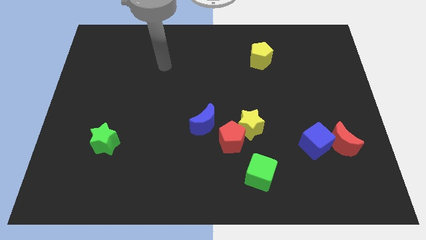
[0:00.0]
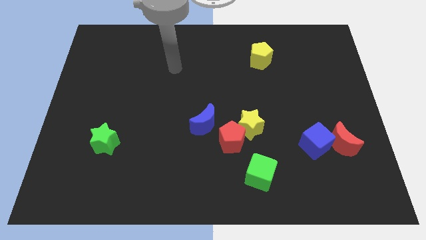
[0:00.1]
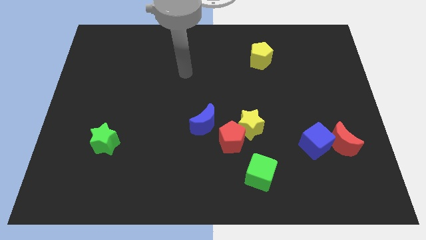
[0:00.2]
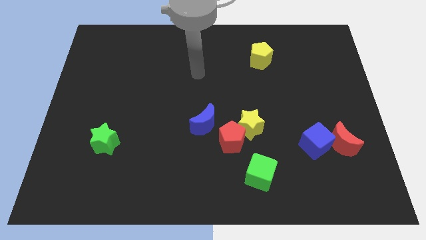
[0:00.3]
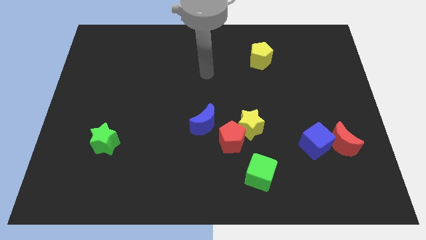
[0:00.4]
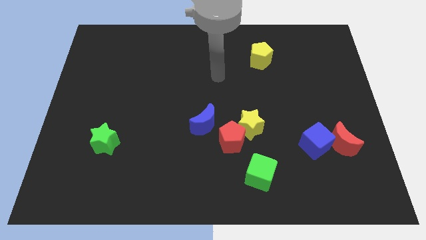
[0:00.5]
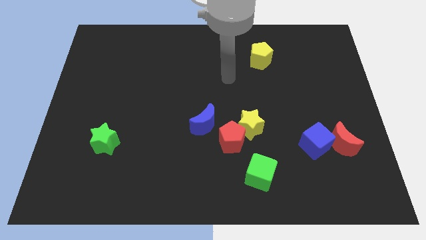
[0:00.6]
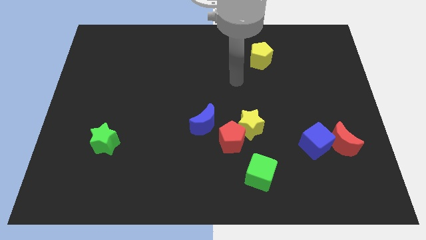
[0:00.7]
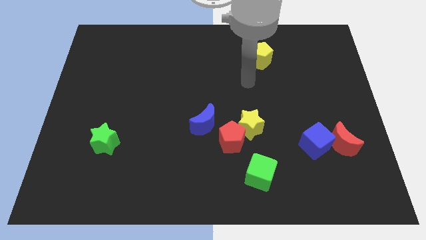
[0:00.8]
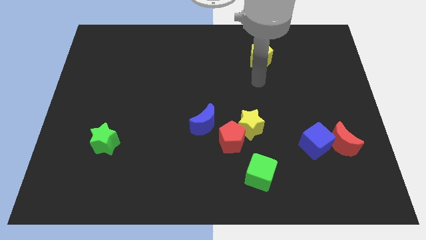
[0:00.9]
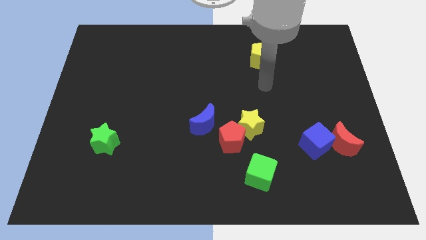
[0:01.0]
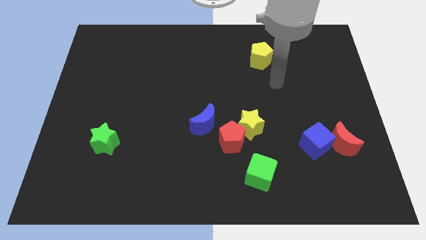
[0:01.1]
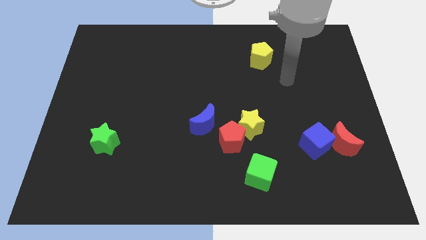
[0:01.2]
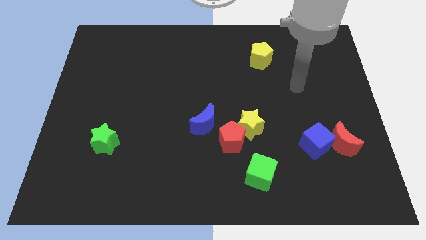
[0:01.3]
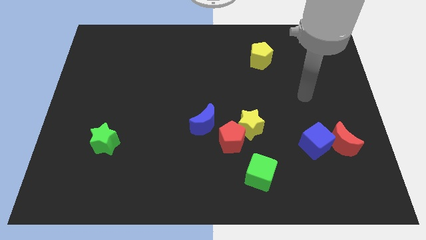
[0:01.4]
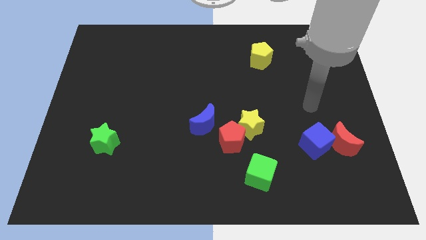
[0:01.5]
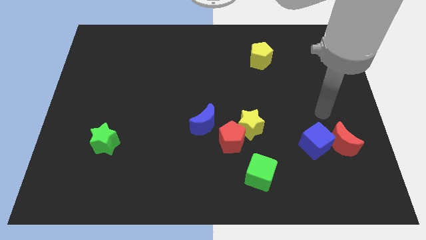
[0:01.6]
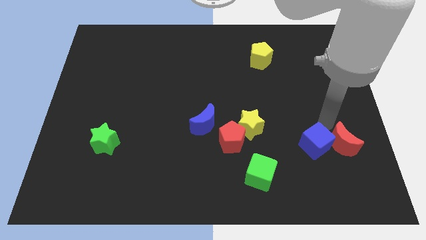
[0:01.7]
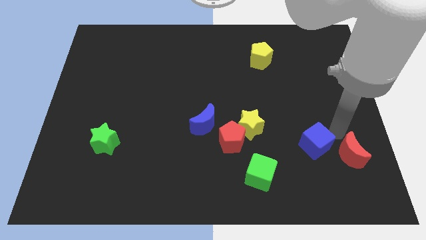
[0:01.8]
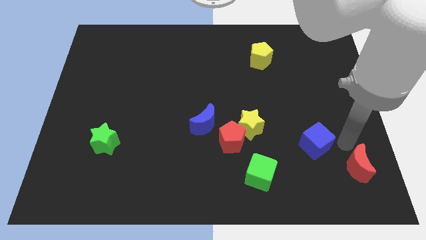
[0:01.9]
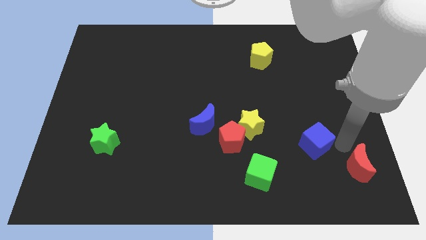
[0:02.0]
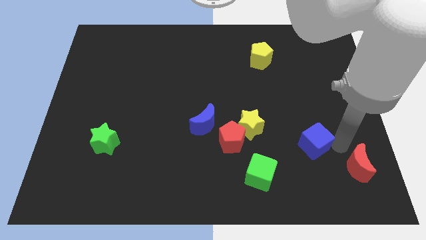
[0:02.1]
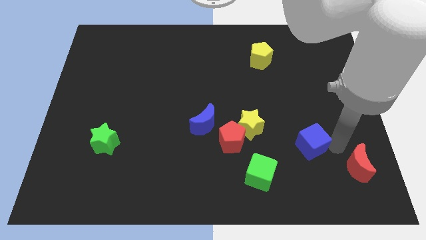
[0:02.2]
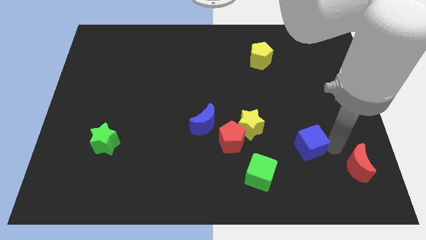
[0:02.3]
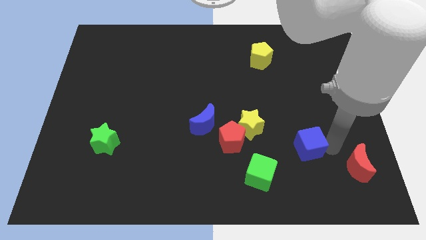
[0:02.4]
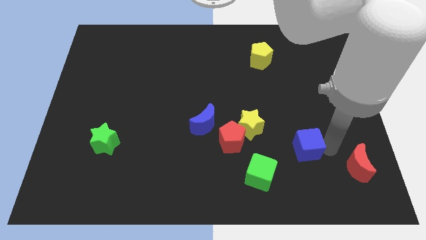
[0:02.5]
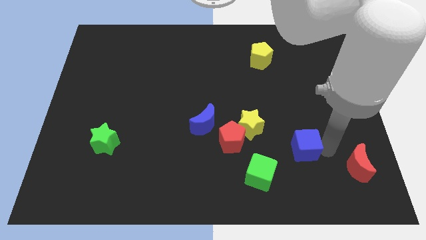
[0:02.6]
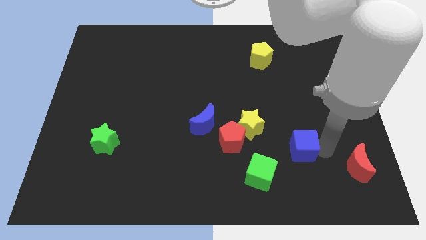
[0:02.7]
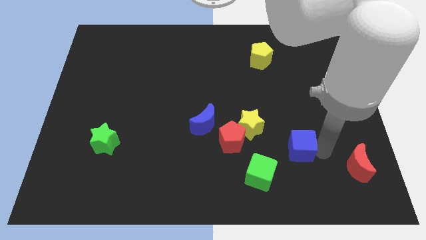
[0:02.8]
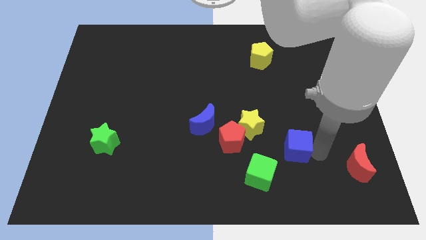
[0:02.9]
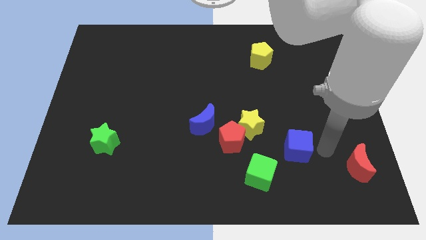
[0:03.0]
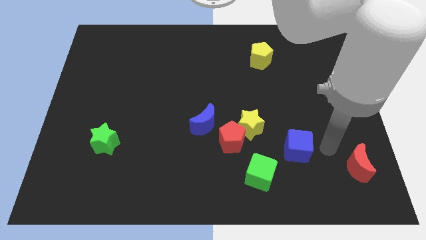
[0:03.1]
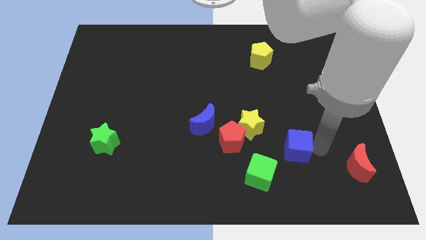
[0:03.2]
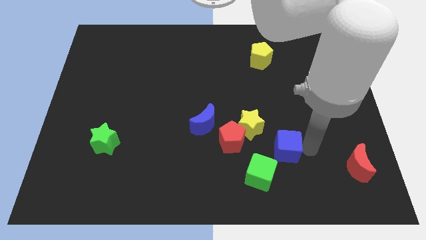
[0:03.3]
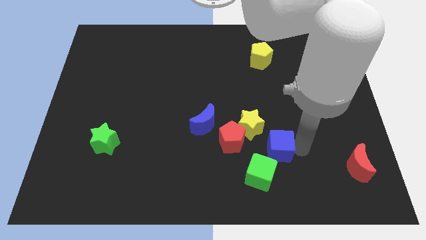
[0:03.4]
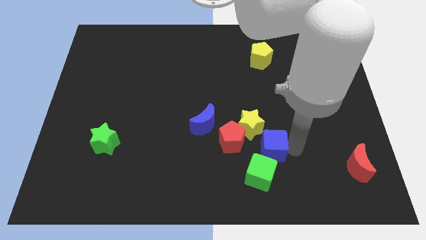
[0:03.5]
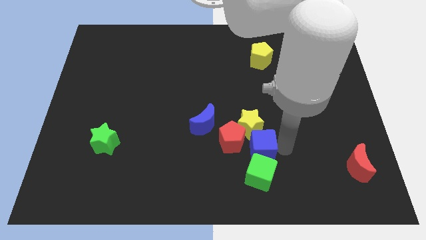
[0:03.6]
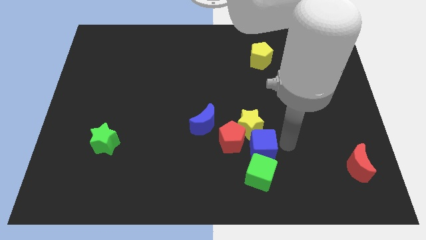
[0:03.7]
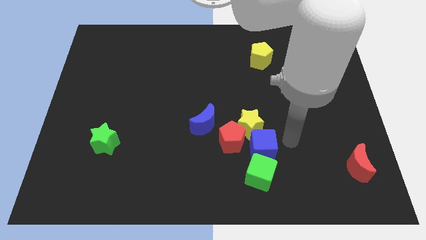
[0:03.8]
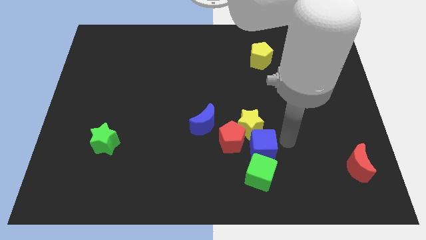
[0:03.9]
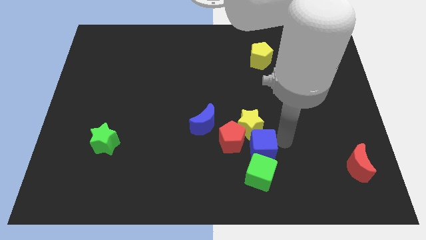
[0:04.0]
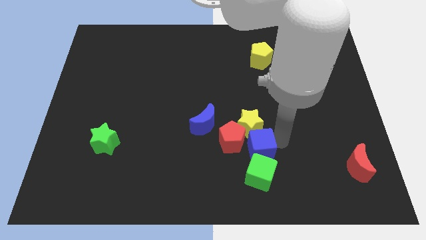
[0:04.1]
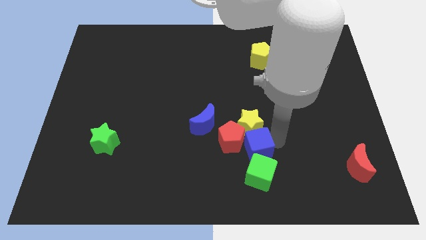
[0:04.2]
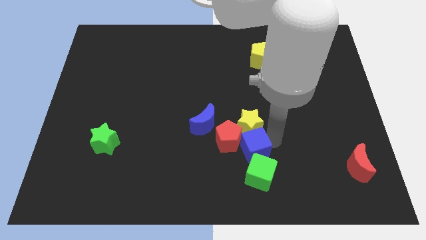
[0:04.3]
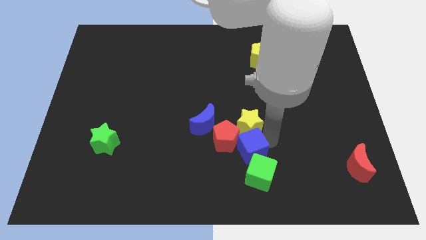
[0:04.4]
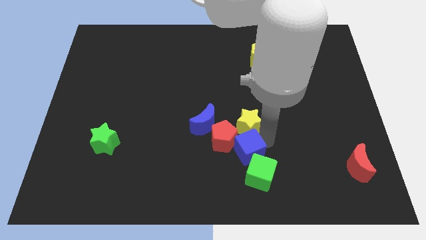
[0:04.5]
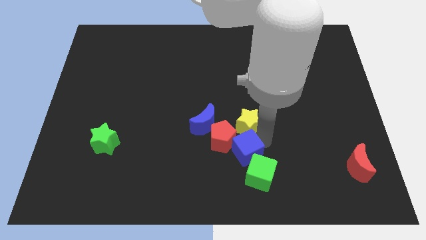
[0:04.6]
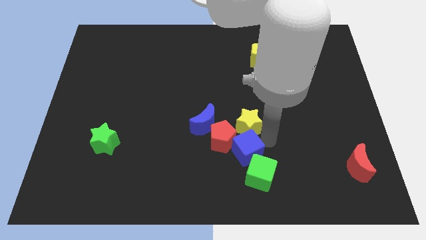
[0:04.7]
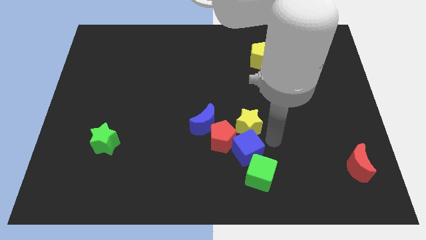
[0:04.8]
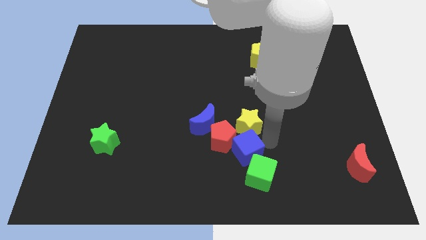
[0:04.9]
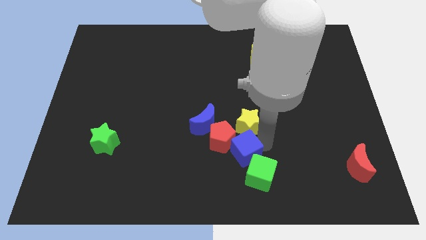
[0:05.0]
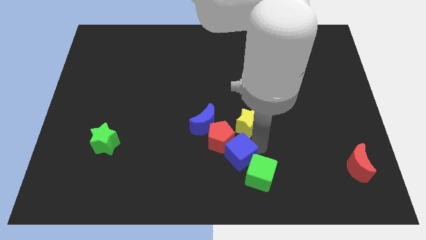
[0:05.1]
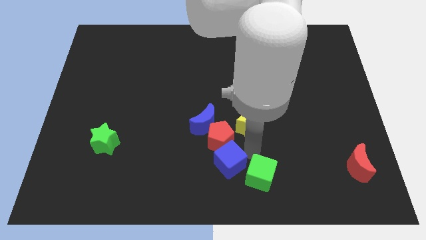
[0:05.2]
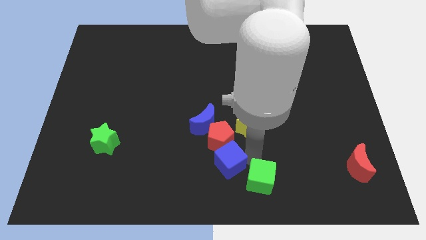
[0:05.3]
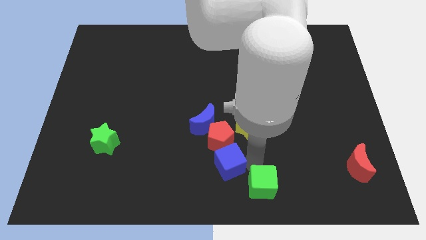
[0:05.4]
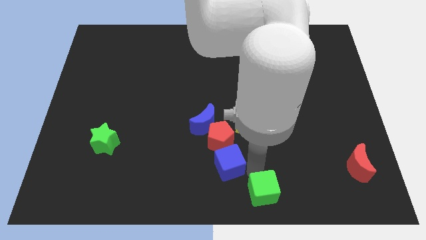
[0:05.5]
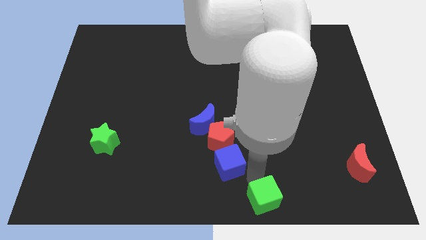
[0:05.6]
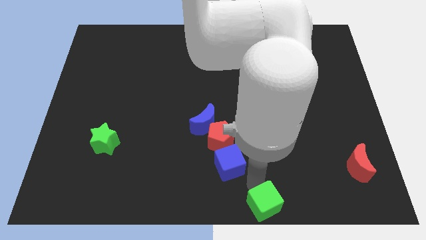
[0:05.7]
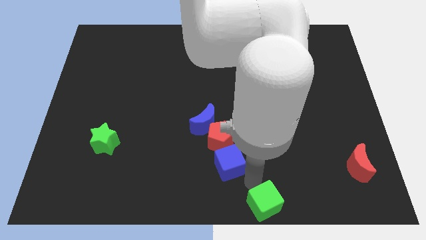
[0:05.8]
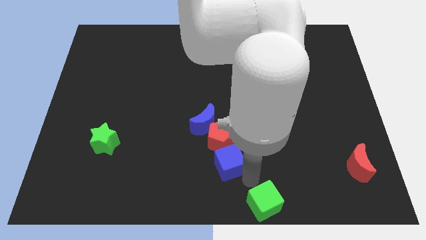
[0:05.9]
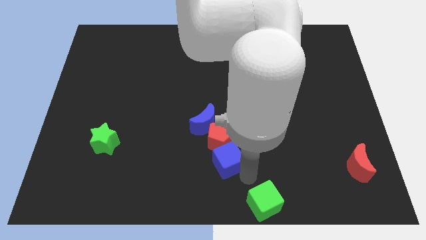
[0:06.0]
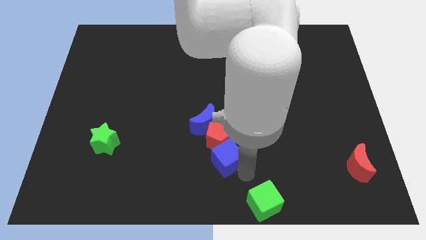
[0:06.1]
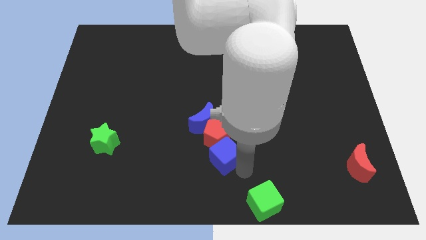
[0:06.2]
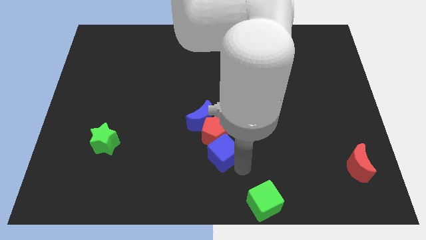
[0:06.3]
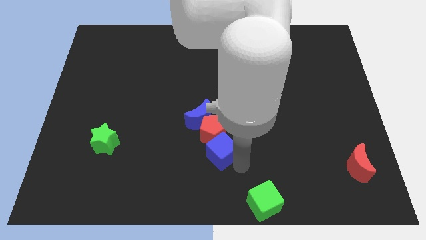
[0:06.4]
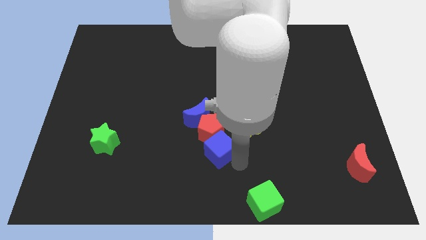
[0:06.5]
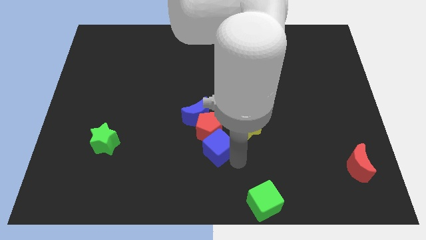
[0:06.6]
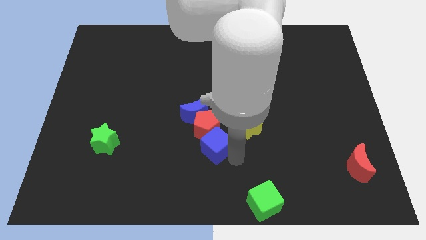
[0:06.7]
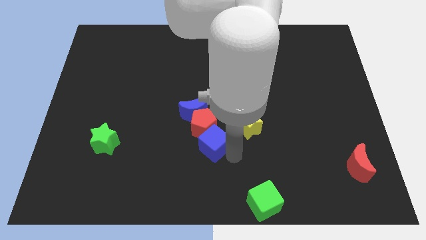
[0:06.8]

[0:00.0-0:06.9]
put the blue cube just left of the yellow star

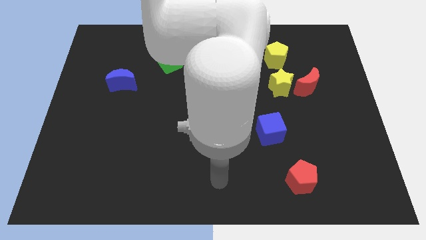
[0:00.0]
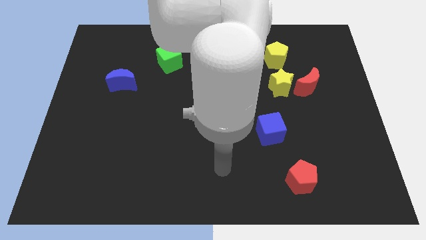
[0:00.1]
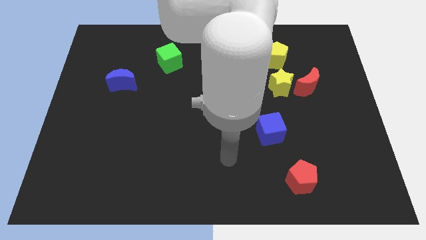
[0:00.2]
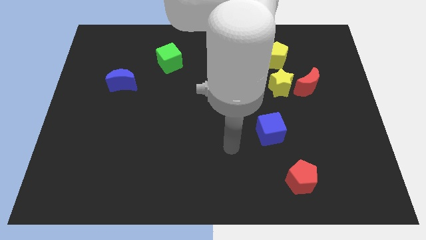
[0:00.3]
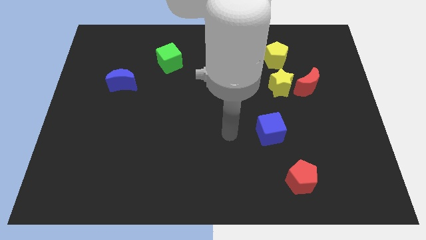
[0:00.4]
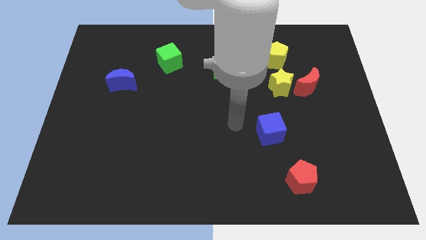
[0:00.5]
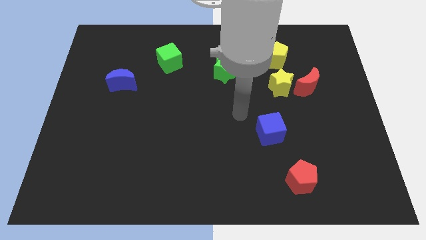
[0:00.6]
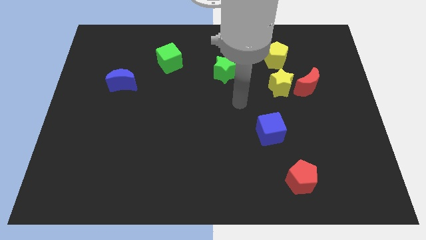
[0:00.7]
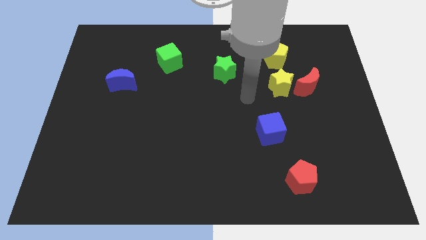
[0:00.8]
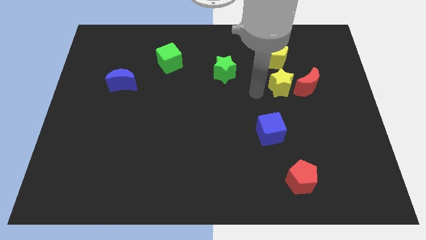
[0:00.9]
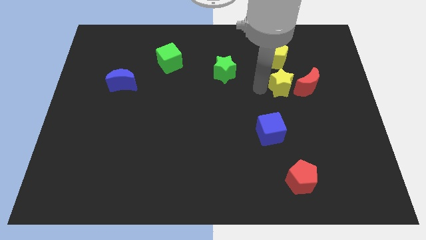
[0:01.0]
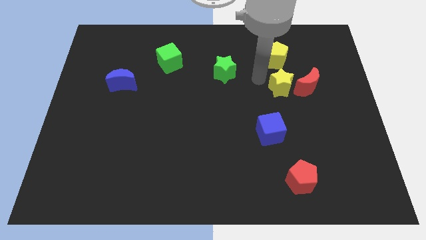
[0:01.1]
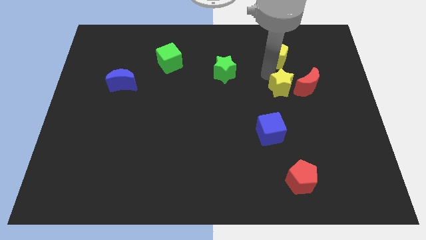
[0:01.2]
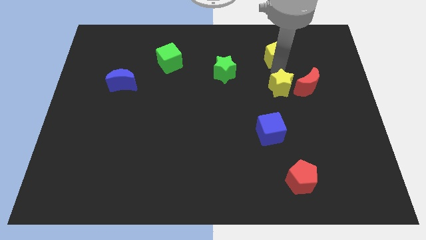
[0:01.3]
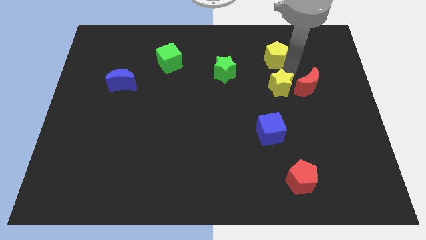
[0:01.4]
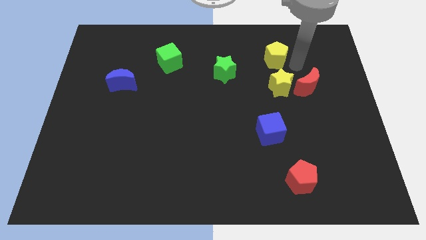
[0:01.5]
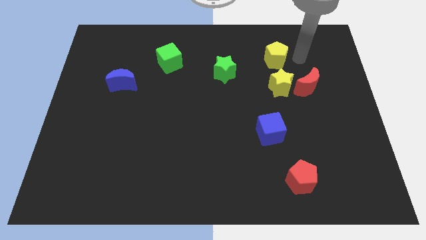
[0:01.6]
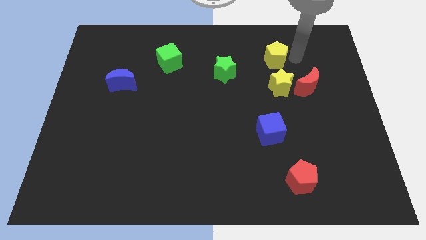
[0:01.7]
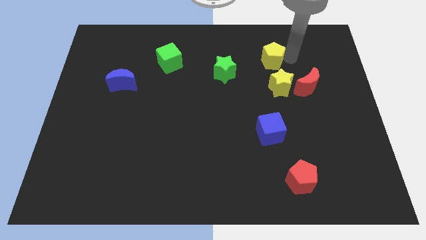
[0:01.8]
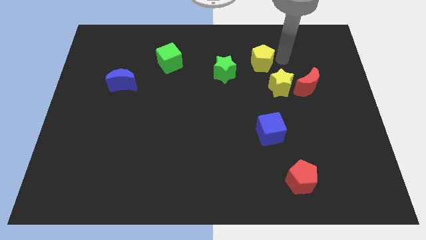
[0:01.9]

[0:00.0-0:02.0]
put the yellow pentagon diagonally up and to the right of the green star
